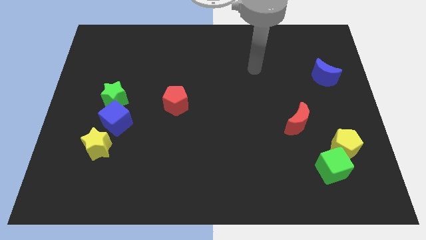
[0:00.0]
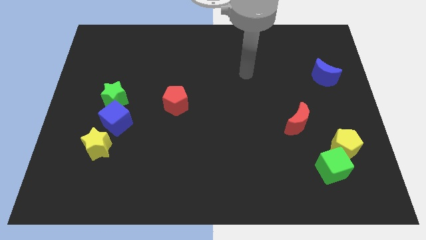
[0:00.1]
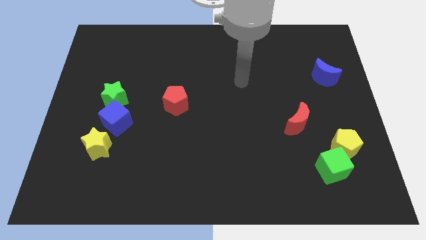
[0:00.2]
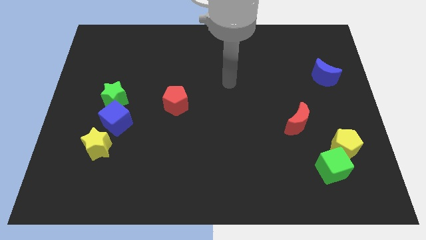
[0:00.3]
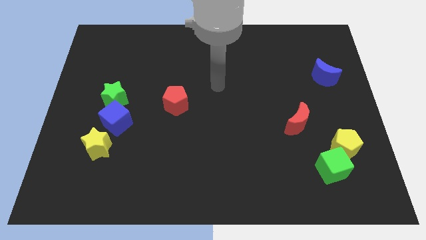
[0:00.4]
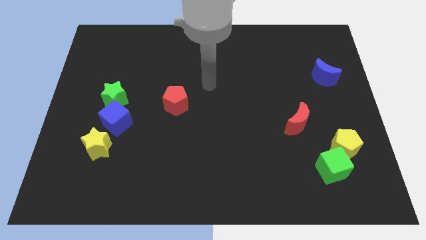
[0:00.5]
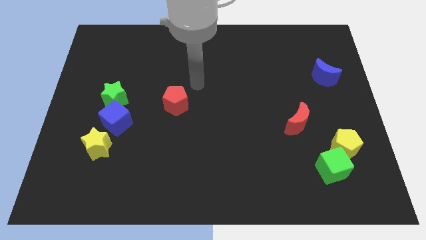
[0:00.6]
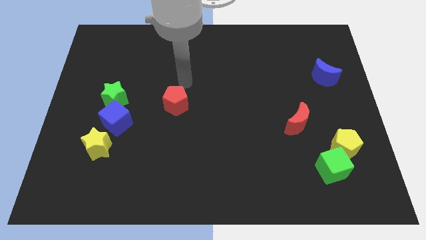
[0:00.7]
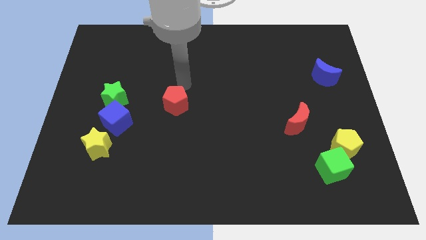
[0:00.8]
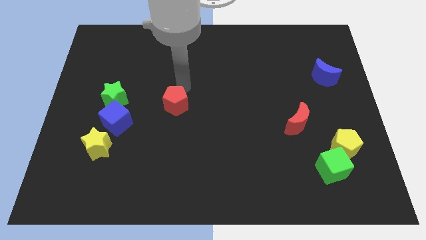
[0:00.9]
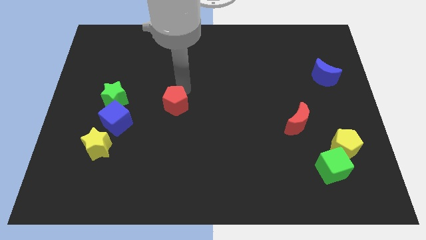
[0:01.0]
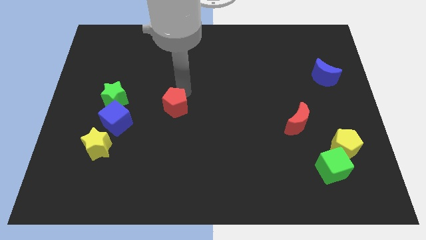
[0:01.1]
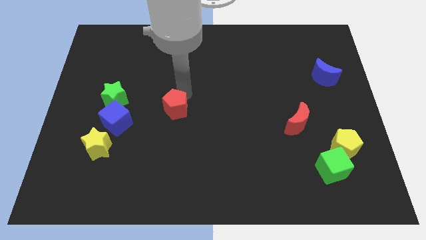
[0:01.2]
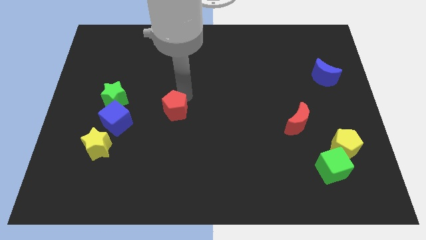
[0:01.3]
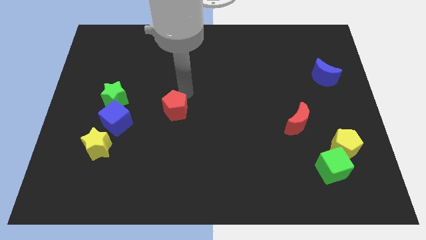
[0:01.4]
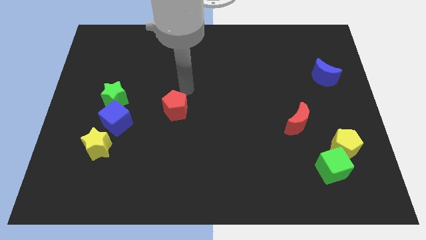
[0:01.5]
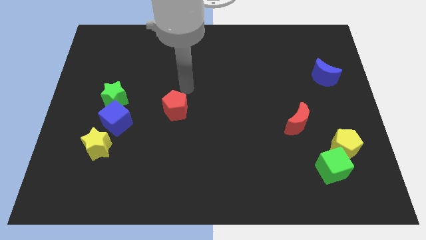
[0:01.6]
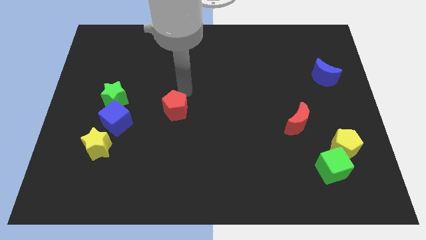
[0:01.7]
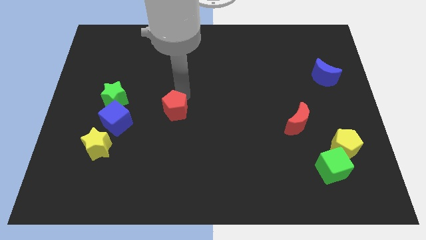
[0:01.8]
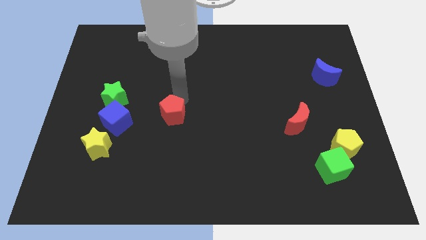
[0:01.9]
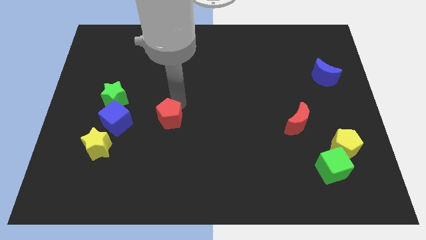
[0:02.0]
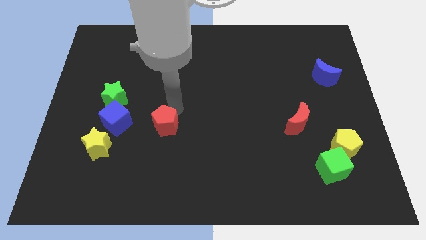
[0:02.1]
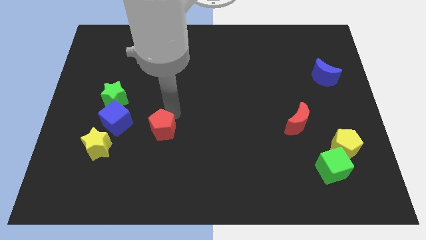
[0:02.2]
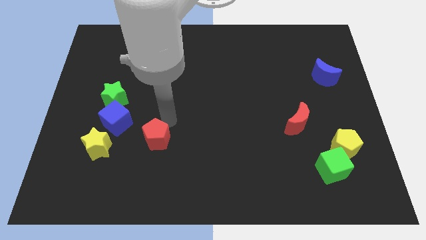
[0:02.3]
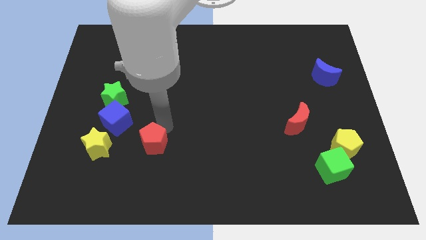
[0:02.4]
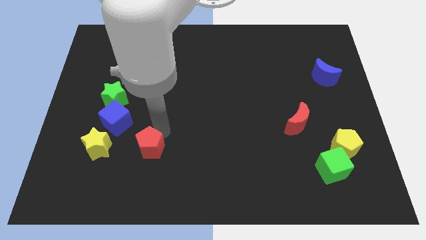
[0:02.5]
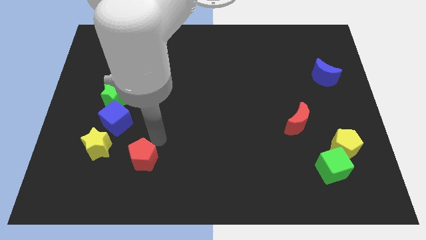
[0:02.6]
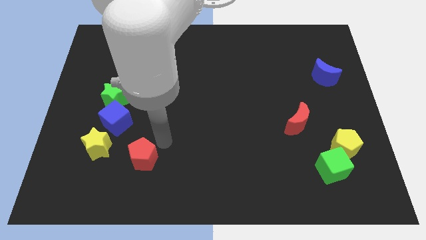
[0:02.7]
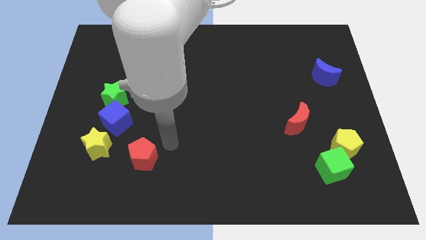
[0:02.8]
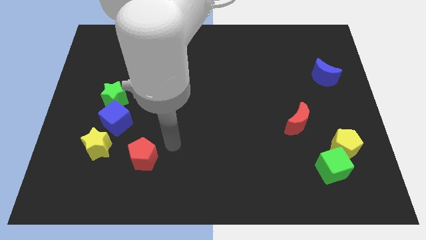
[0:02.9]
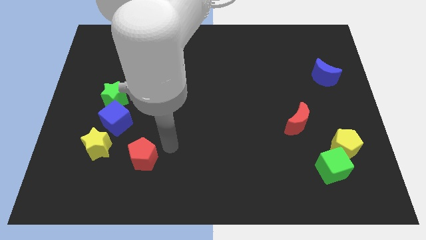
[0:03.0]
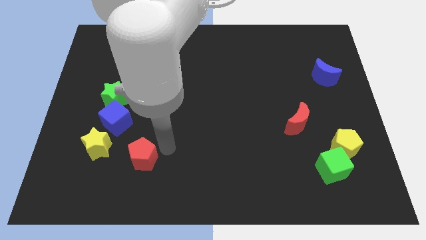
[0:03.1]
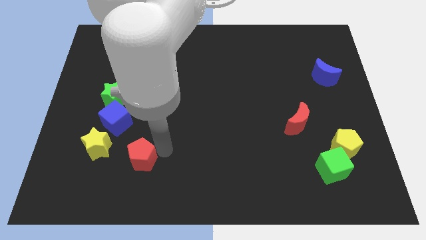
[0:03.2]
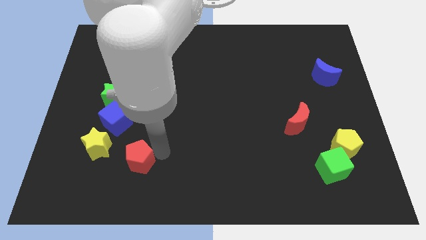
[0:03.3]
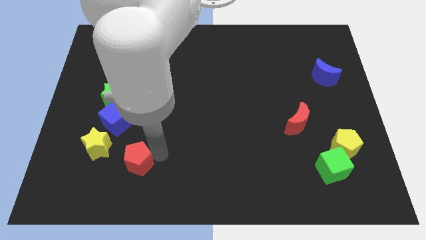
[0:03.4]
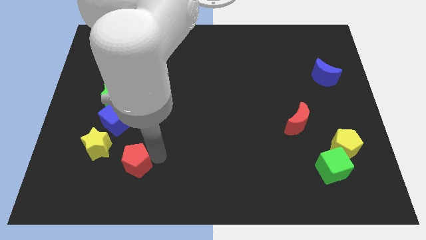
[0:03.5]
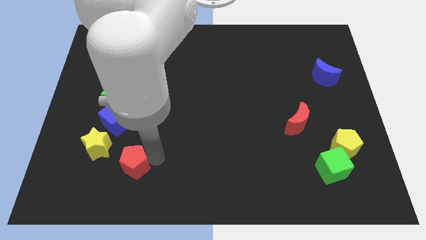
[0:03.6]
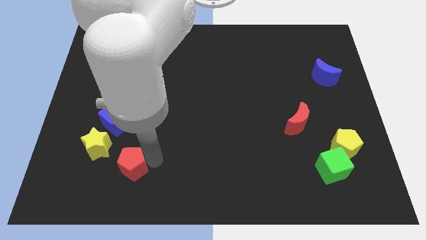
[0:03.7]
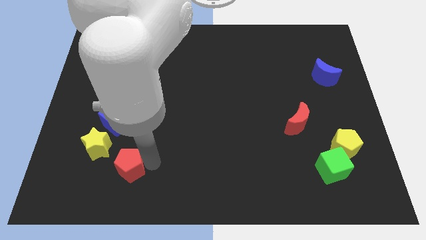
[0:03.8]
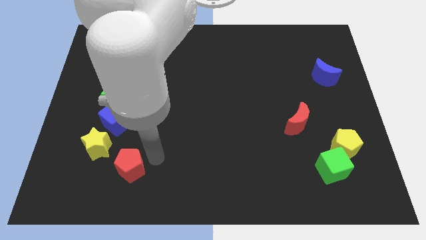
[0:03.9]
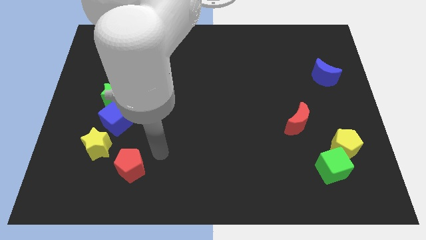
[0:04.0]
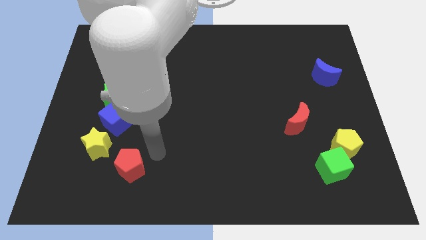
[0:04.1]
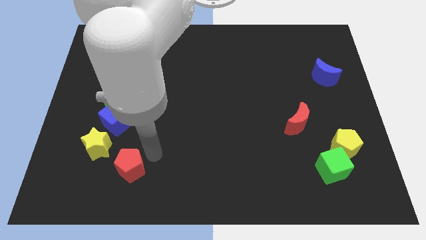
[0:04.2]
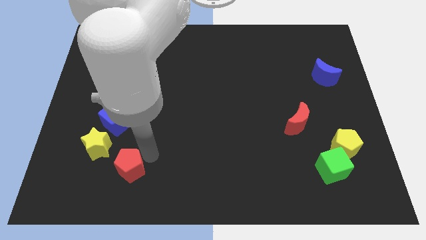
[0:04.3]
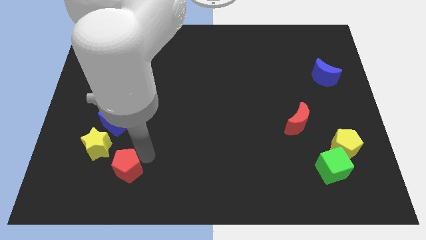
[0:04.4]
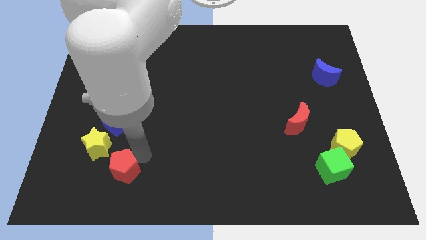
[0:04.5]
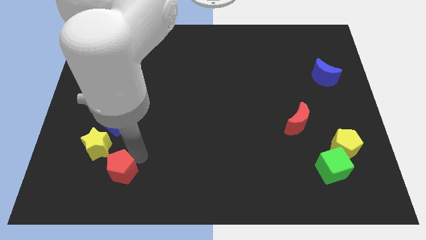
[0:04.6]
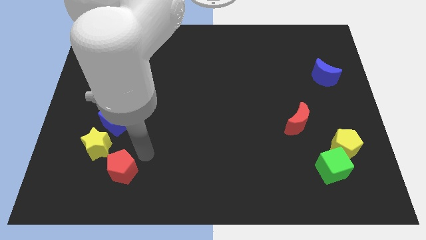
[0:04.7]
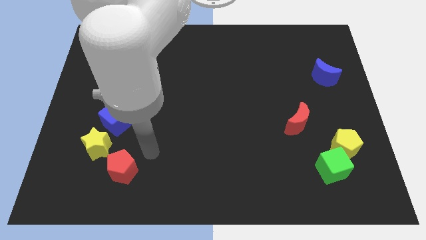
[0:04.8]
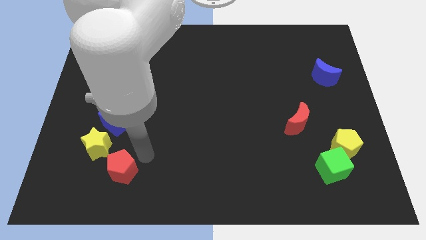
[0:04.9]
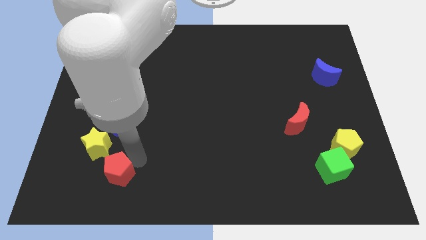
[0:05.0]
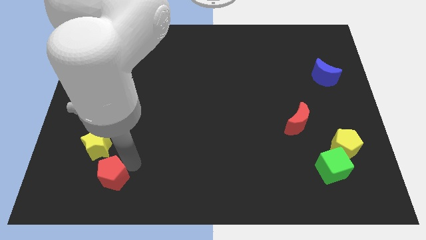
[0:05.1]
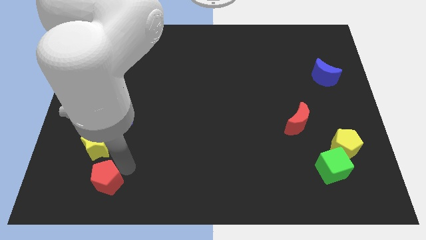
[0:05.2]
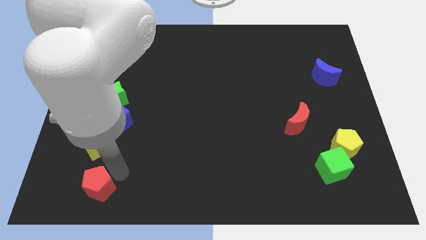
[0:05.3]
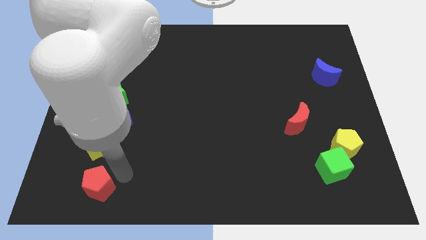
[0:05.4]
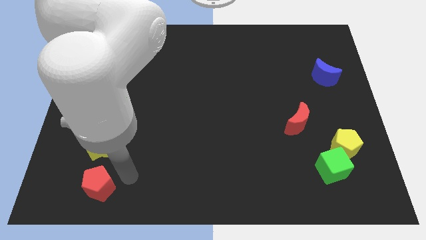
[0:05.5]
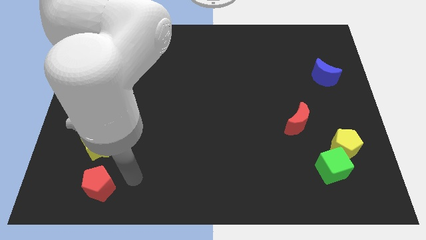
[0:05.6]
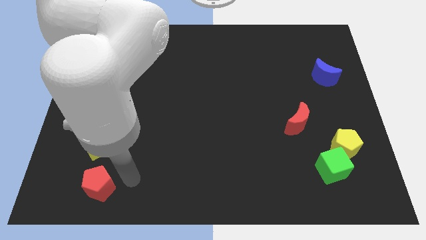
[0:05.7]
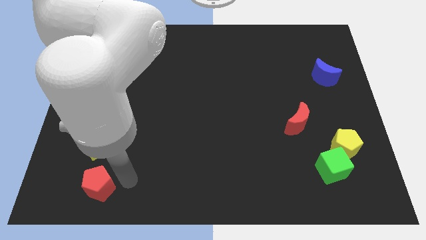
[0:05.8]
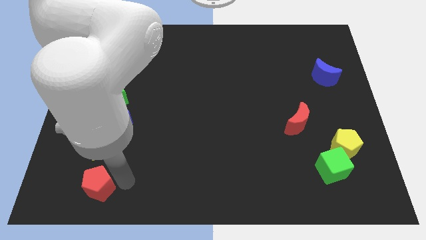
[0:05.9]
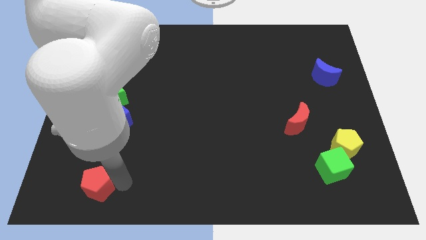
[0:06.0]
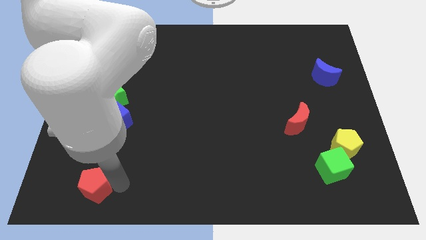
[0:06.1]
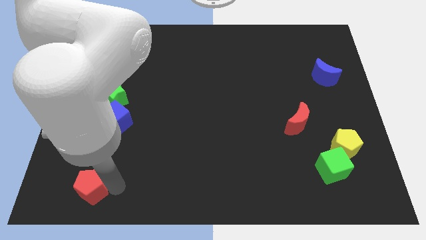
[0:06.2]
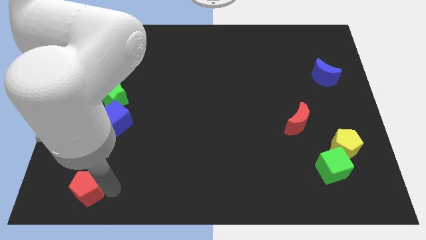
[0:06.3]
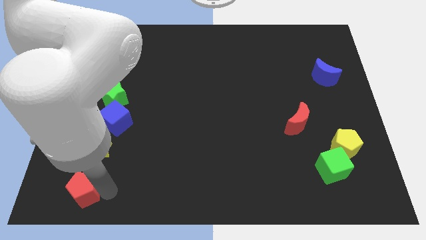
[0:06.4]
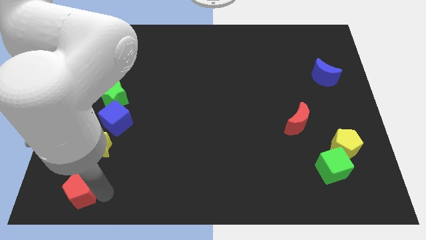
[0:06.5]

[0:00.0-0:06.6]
put the red pentagon to the bottom left
